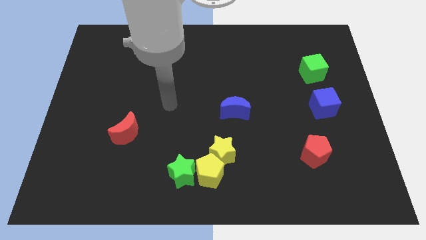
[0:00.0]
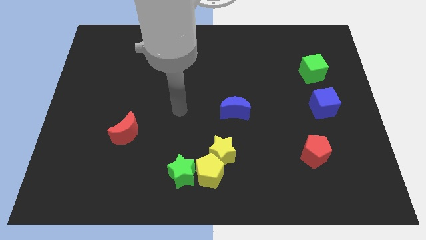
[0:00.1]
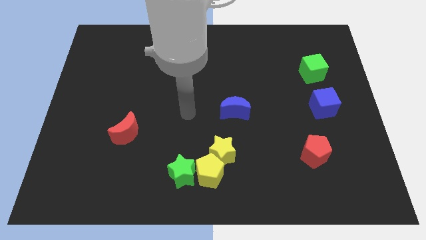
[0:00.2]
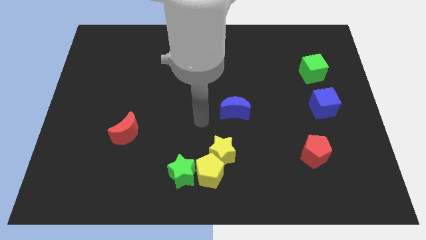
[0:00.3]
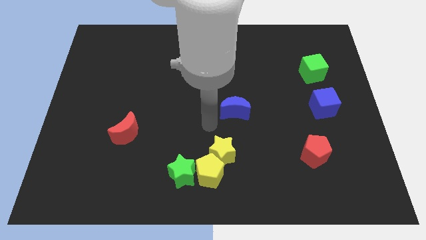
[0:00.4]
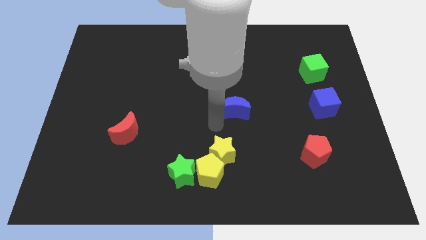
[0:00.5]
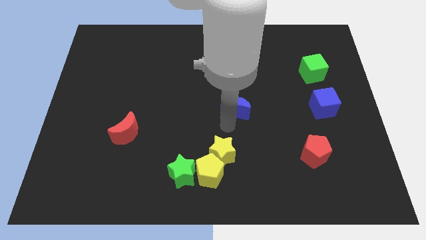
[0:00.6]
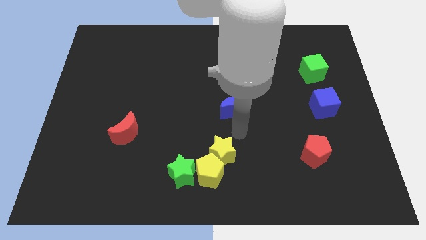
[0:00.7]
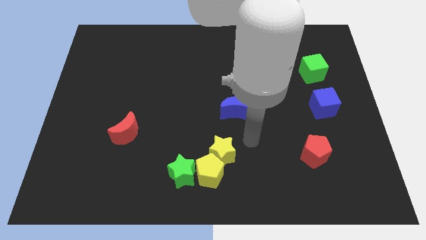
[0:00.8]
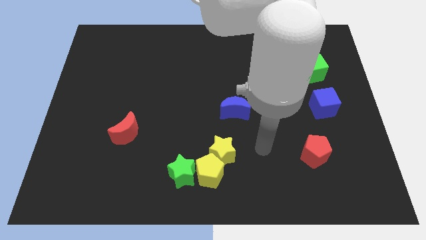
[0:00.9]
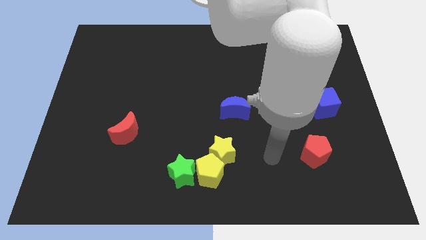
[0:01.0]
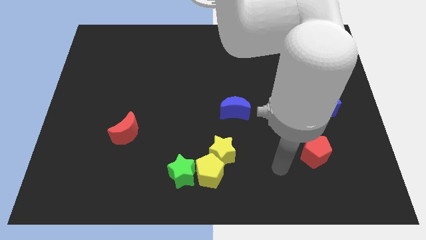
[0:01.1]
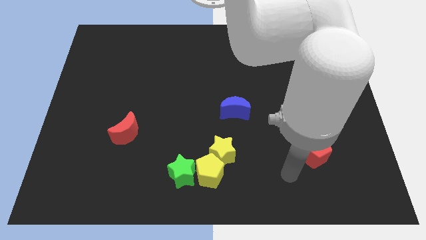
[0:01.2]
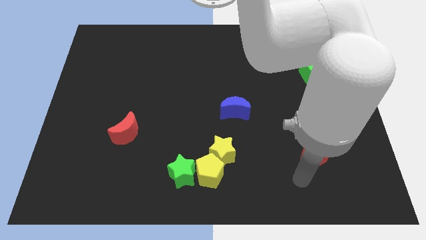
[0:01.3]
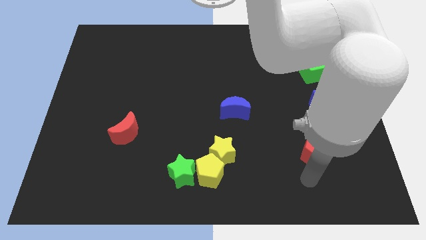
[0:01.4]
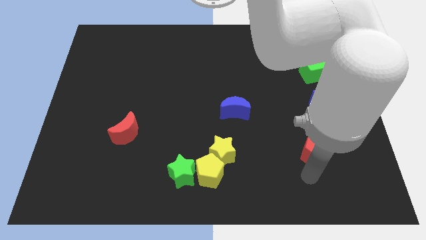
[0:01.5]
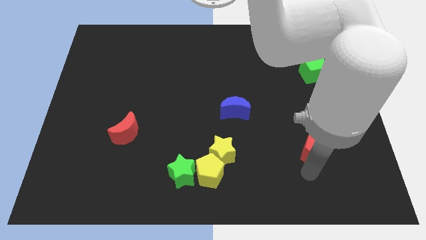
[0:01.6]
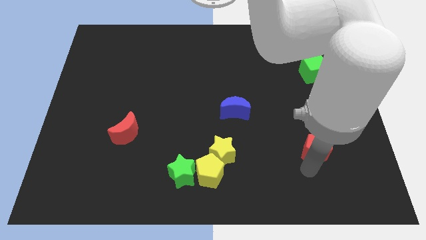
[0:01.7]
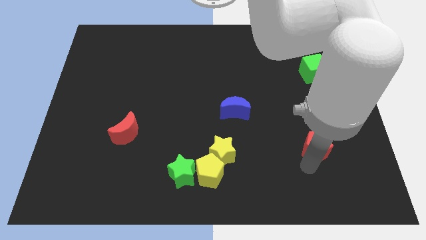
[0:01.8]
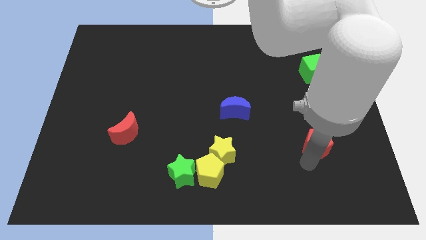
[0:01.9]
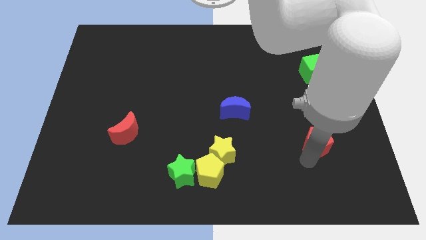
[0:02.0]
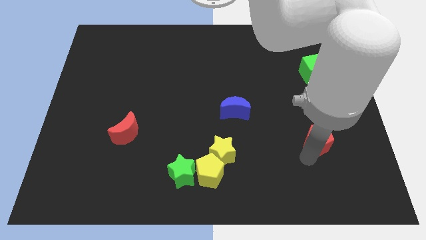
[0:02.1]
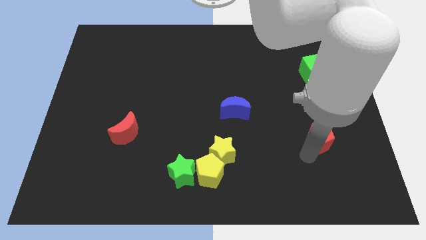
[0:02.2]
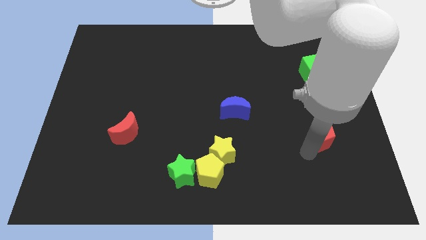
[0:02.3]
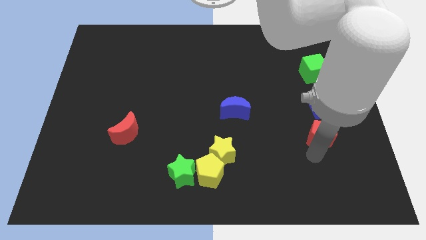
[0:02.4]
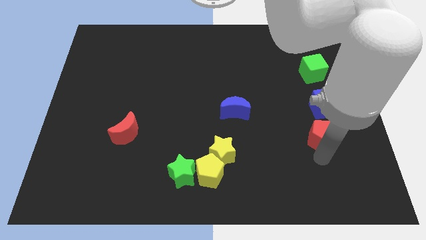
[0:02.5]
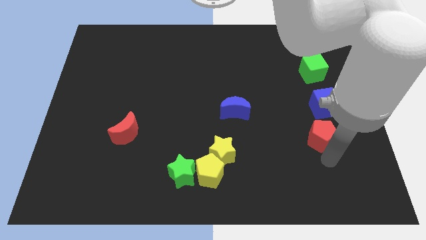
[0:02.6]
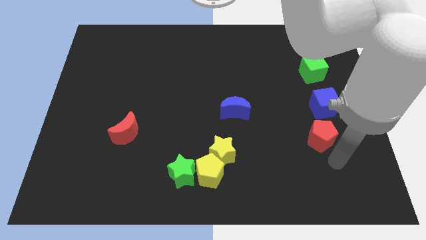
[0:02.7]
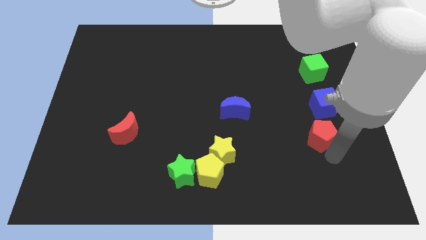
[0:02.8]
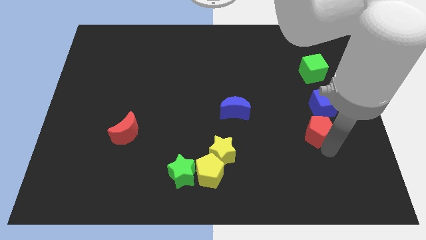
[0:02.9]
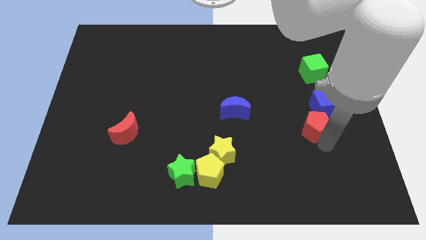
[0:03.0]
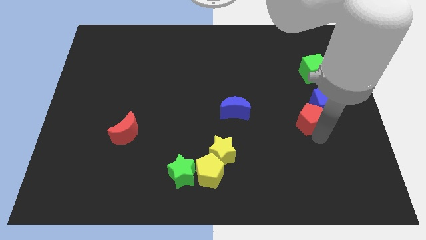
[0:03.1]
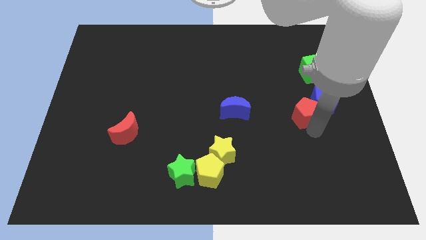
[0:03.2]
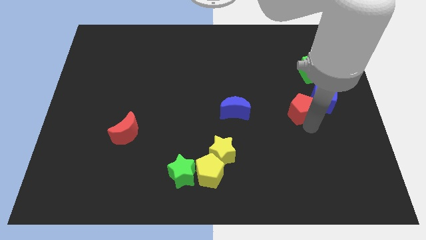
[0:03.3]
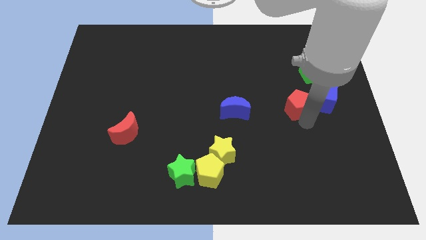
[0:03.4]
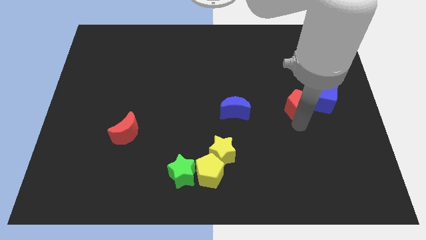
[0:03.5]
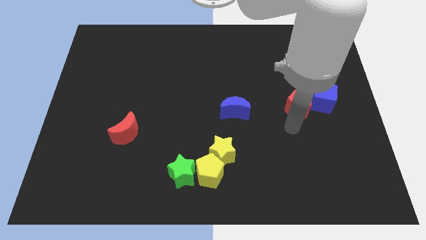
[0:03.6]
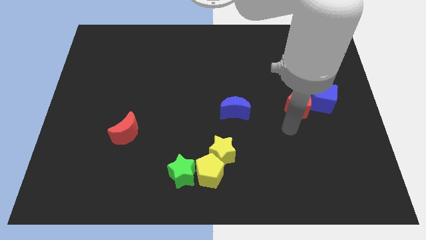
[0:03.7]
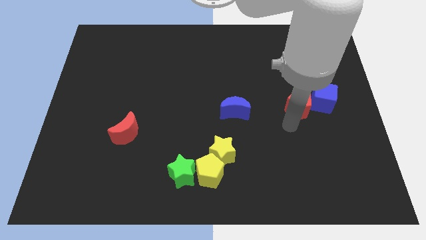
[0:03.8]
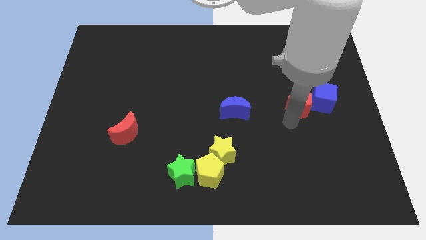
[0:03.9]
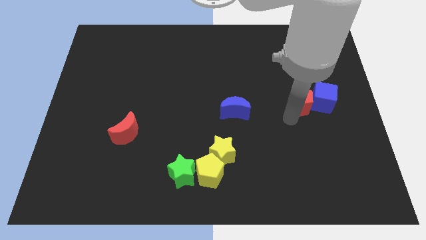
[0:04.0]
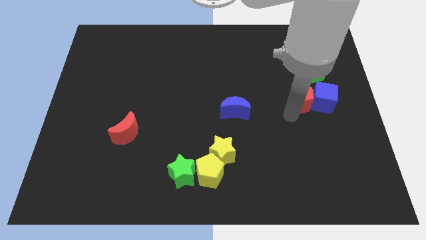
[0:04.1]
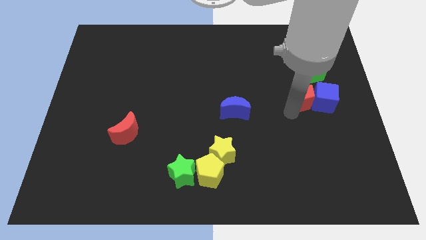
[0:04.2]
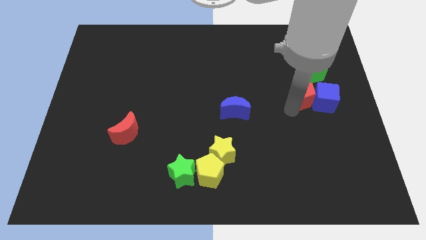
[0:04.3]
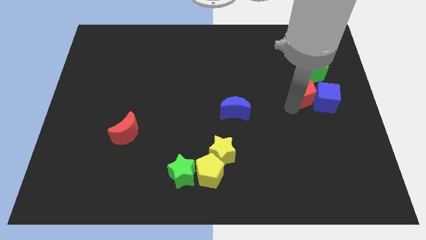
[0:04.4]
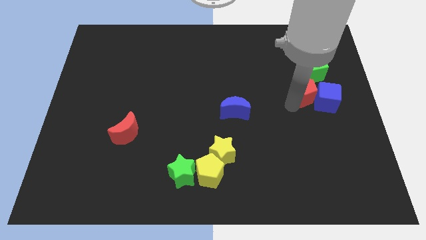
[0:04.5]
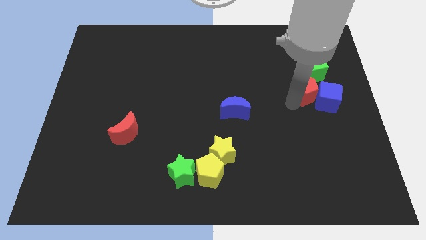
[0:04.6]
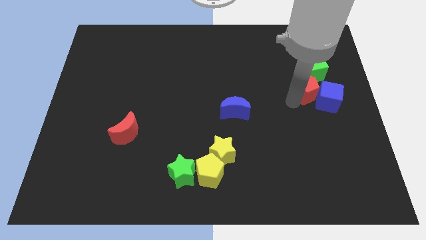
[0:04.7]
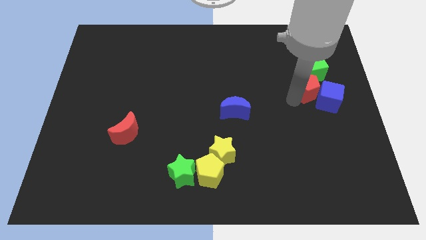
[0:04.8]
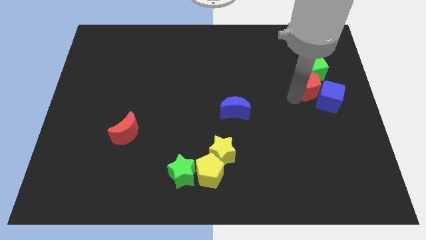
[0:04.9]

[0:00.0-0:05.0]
move the red pentagon close to the green cube

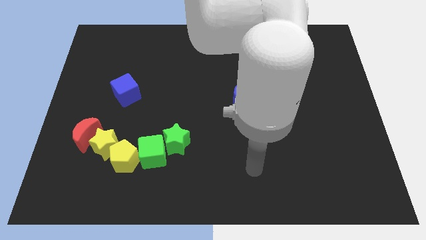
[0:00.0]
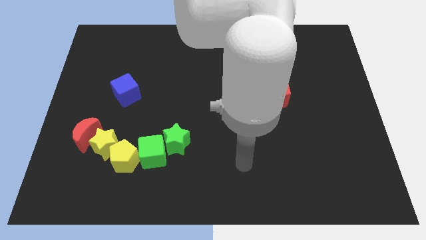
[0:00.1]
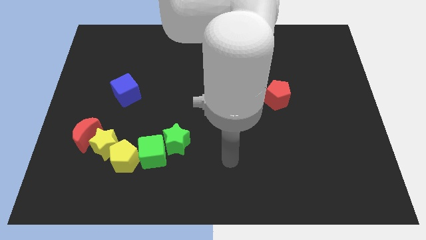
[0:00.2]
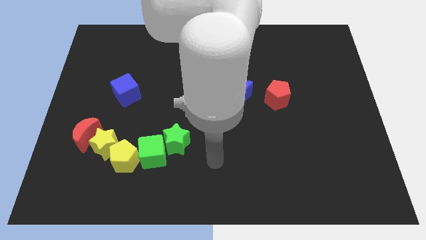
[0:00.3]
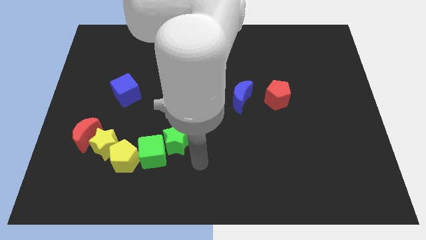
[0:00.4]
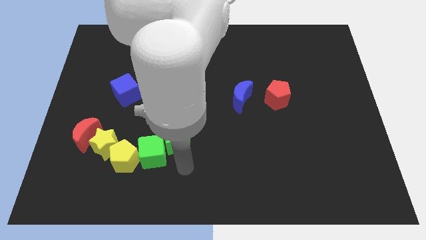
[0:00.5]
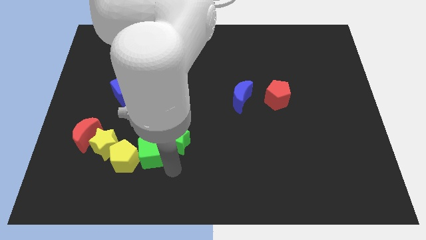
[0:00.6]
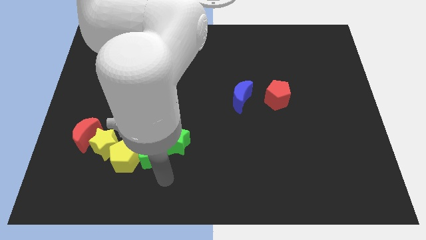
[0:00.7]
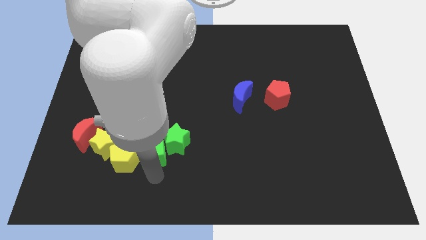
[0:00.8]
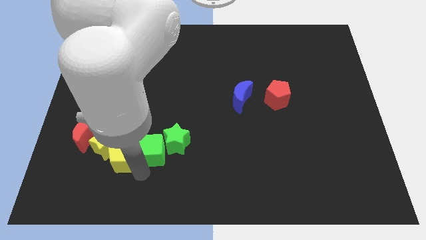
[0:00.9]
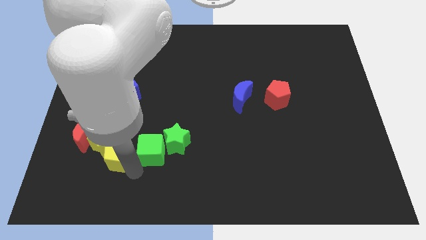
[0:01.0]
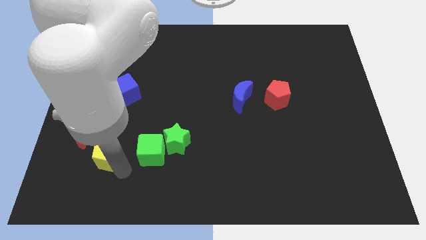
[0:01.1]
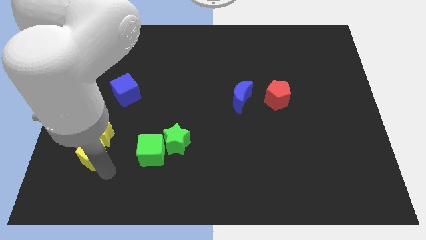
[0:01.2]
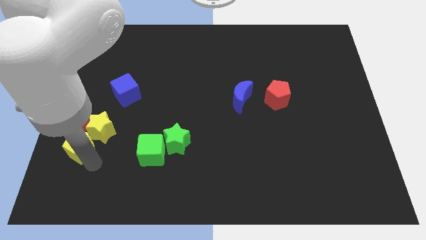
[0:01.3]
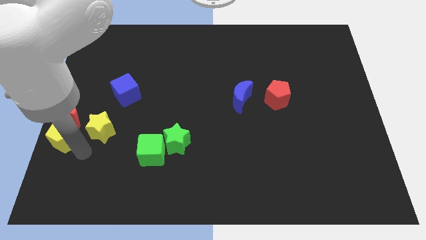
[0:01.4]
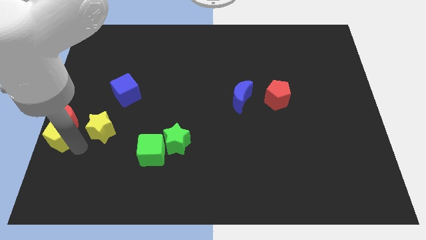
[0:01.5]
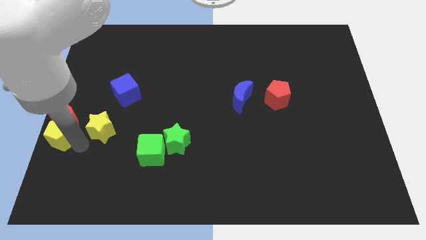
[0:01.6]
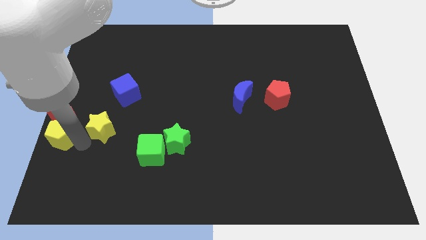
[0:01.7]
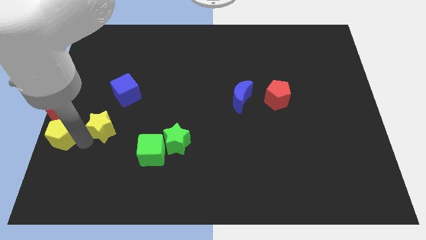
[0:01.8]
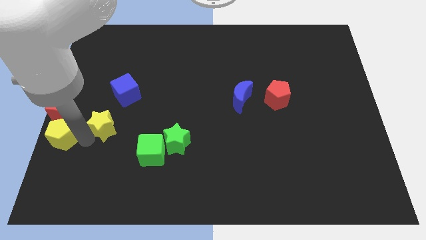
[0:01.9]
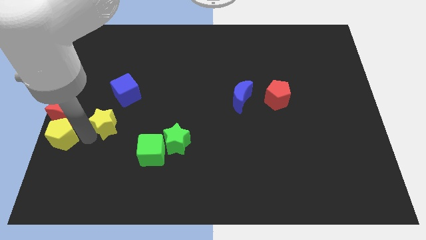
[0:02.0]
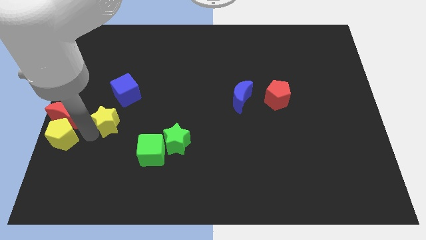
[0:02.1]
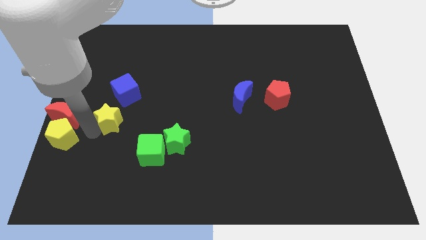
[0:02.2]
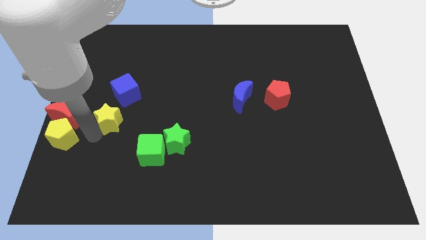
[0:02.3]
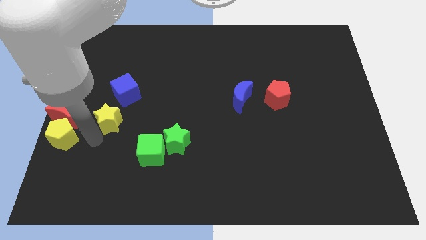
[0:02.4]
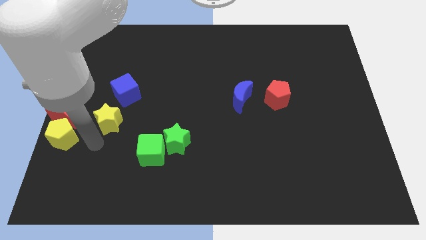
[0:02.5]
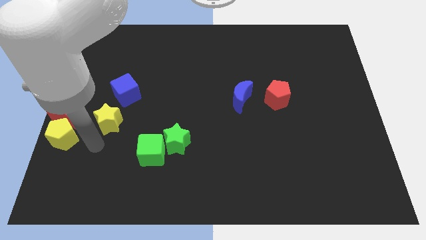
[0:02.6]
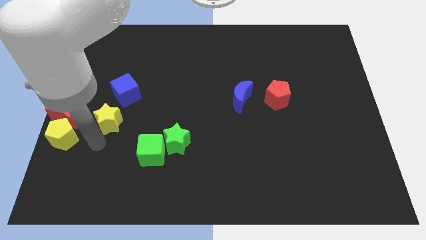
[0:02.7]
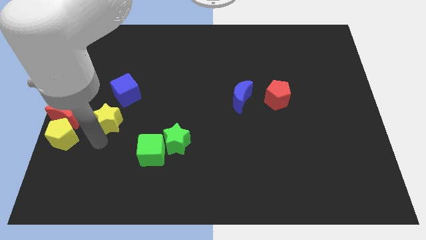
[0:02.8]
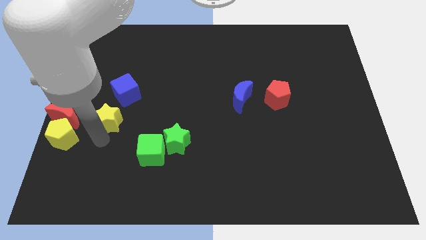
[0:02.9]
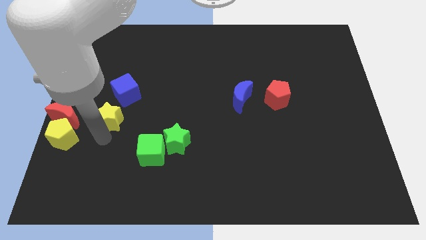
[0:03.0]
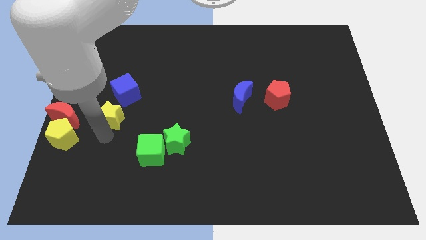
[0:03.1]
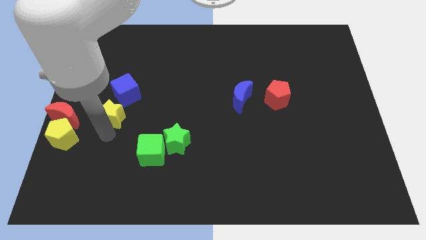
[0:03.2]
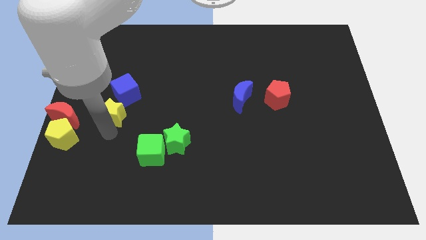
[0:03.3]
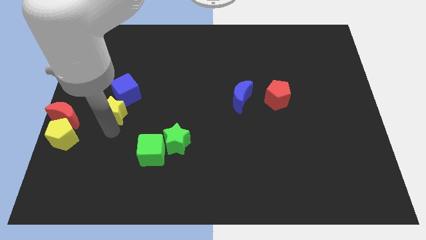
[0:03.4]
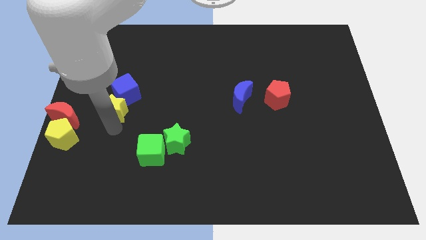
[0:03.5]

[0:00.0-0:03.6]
put the yellow star towards the blue cube
